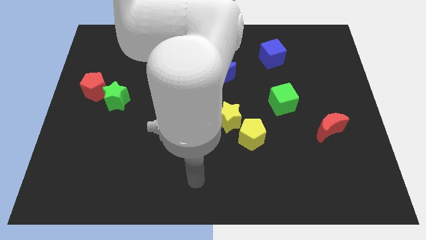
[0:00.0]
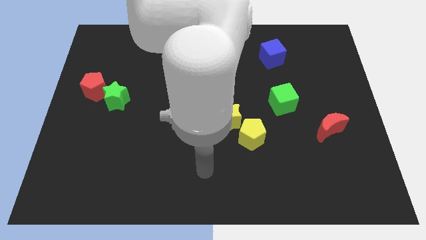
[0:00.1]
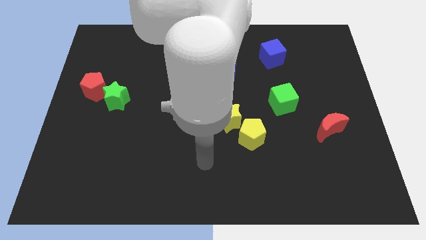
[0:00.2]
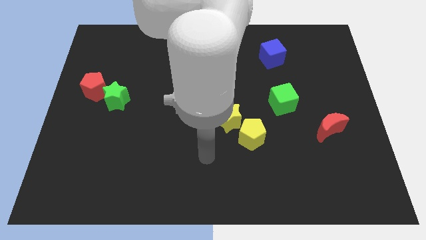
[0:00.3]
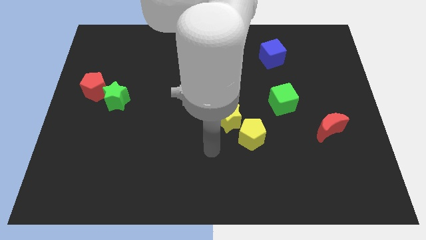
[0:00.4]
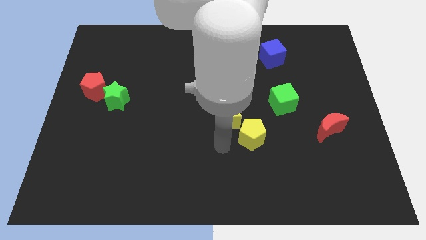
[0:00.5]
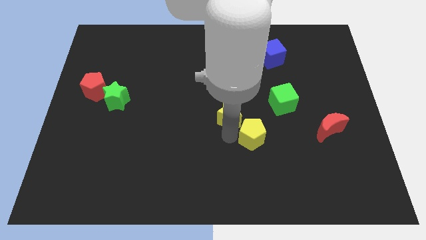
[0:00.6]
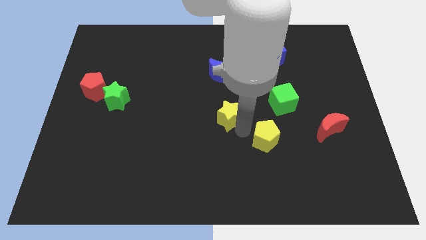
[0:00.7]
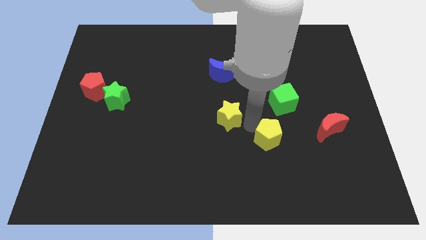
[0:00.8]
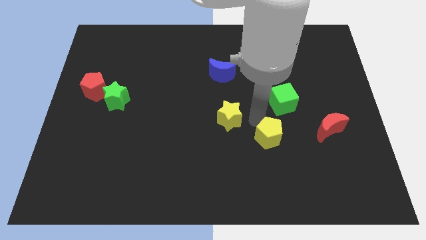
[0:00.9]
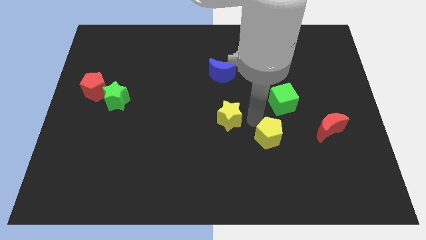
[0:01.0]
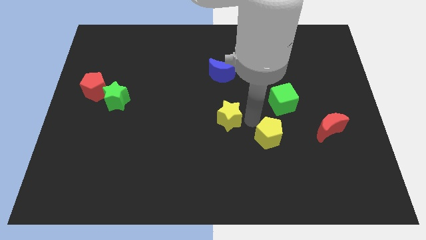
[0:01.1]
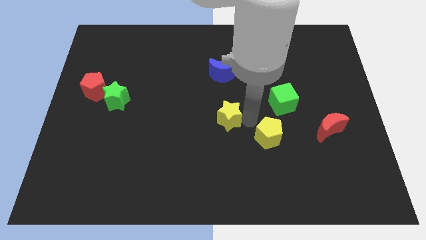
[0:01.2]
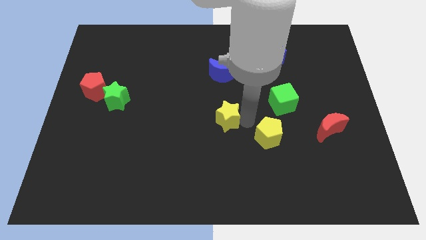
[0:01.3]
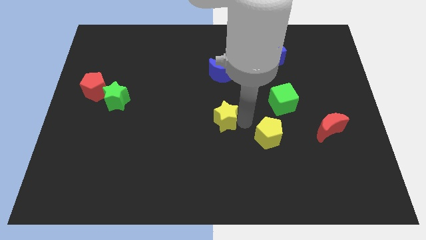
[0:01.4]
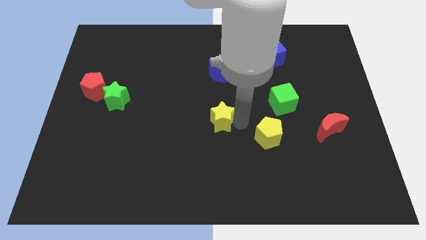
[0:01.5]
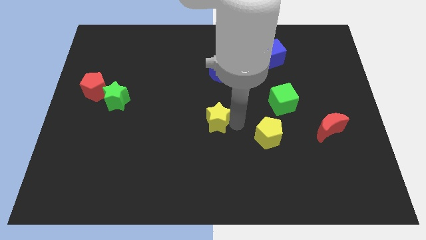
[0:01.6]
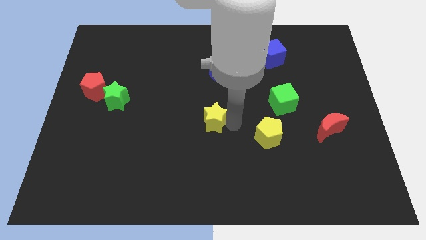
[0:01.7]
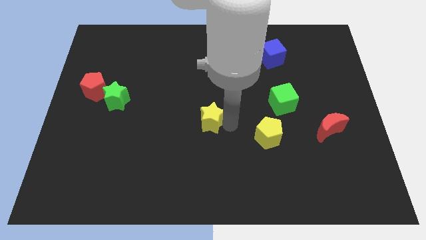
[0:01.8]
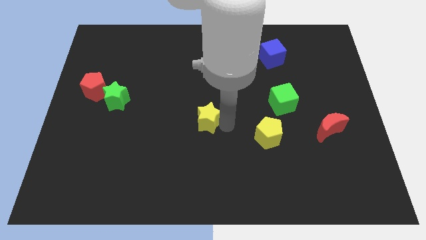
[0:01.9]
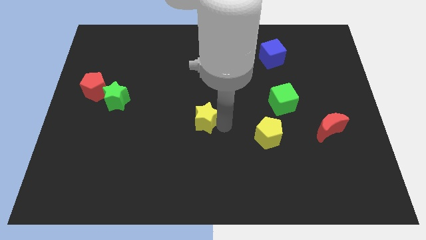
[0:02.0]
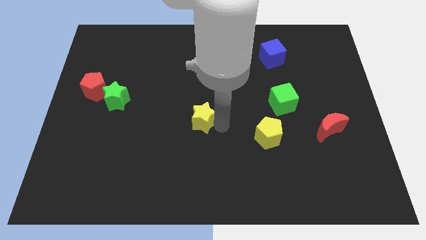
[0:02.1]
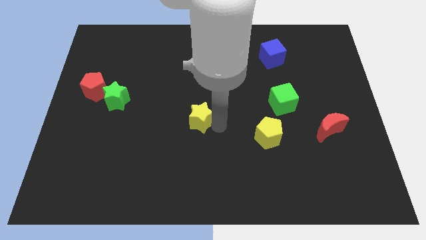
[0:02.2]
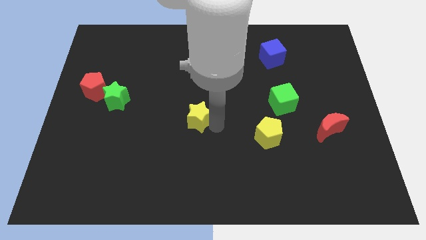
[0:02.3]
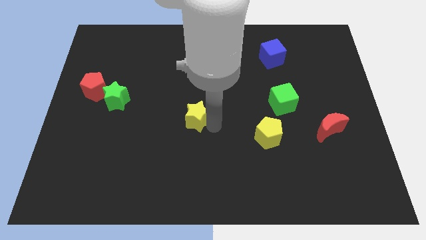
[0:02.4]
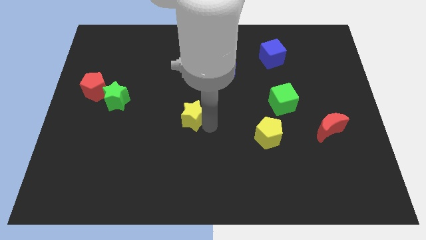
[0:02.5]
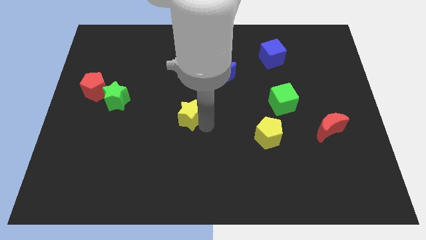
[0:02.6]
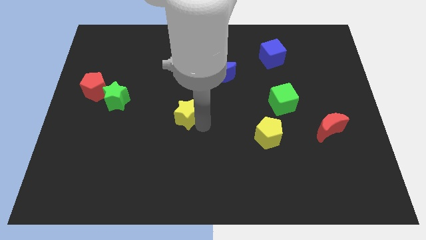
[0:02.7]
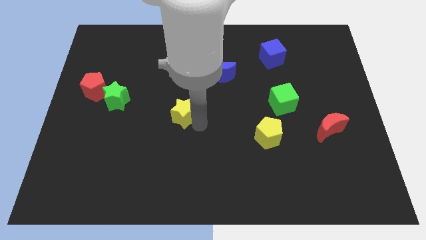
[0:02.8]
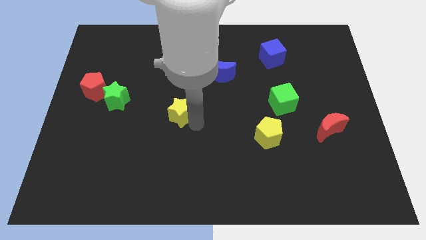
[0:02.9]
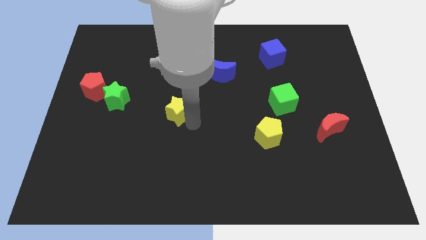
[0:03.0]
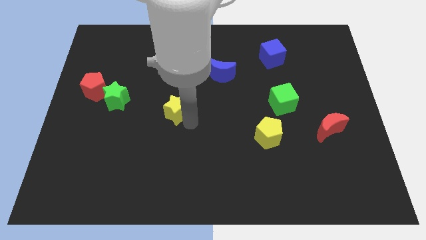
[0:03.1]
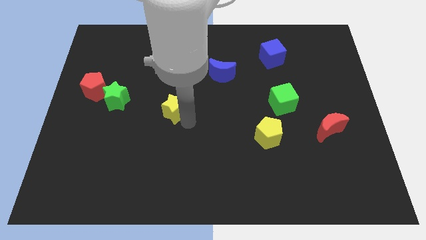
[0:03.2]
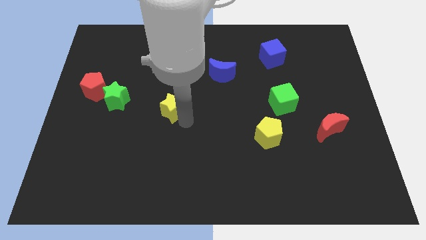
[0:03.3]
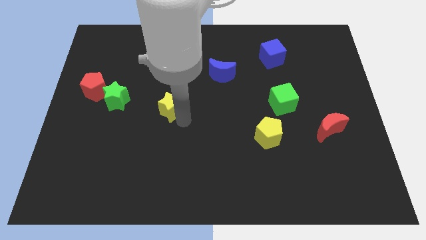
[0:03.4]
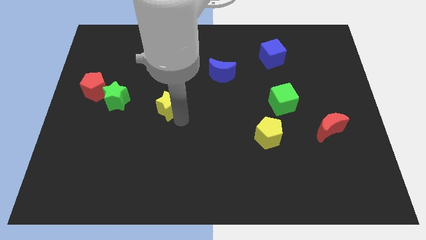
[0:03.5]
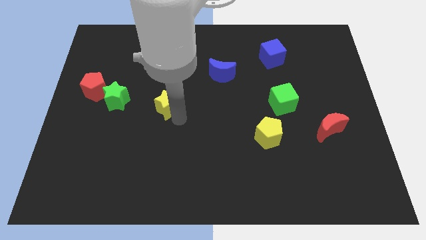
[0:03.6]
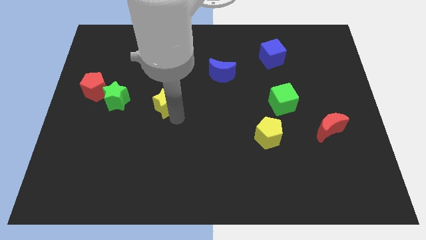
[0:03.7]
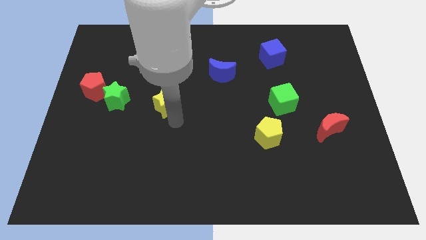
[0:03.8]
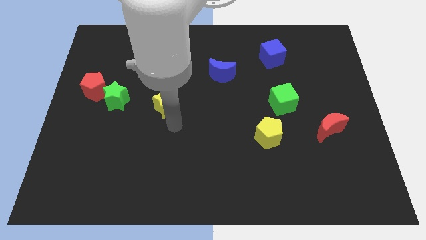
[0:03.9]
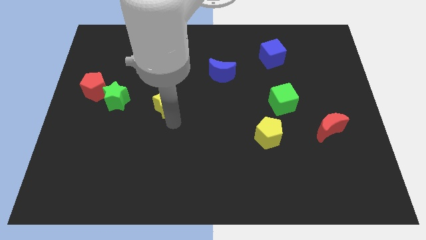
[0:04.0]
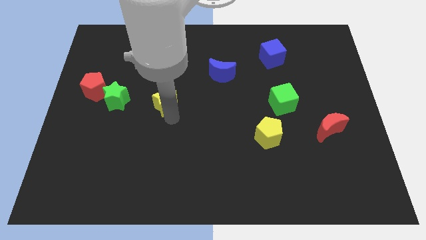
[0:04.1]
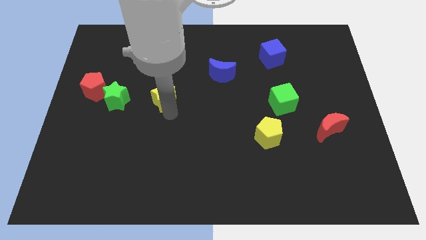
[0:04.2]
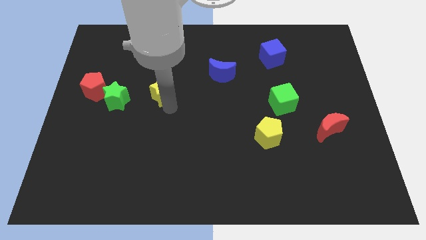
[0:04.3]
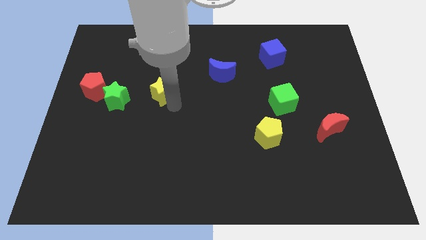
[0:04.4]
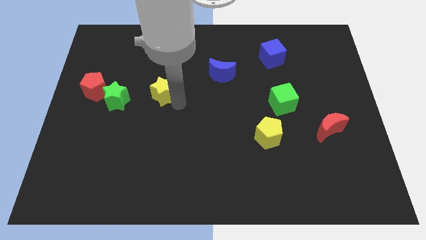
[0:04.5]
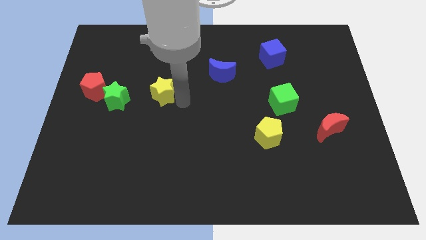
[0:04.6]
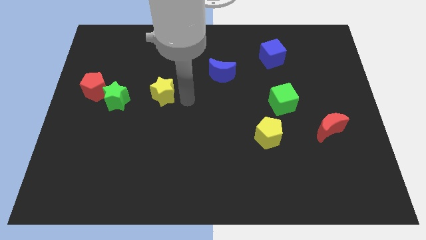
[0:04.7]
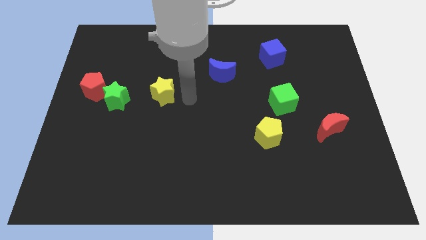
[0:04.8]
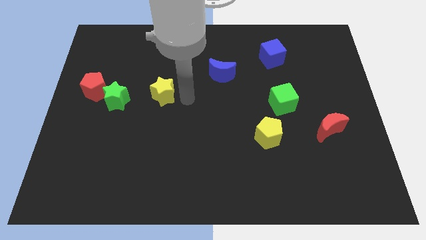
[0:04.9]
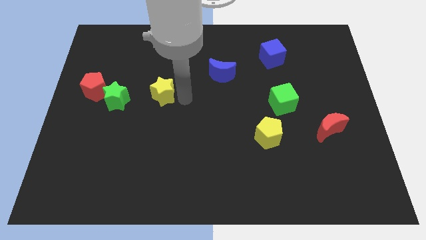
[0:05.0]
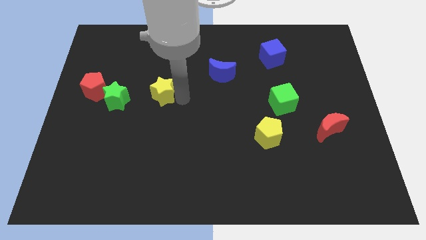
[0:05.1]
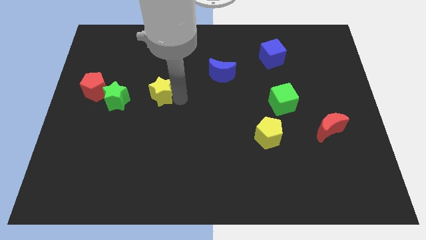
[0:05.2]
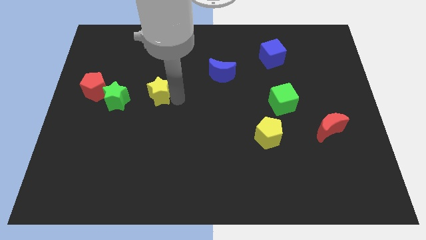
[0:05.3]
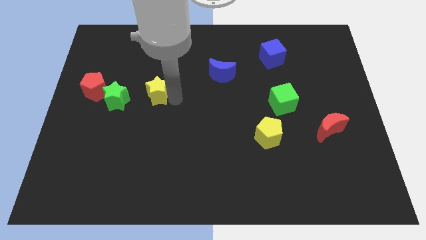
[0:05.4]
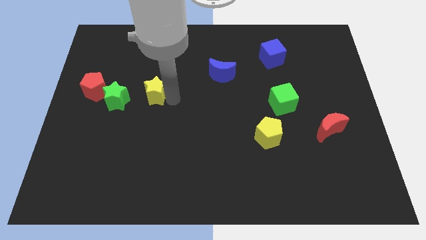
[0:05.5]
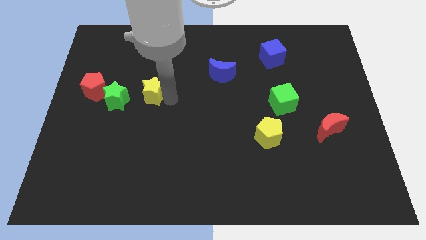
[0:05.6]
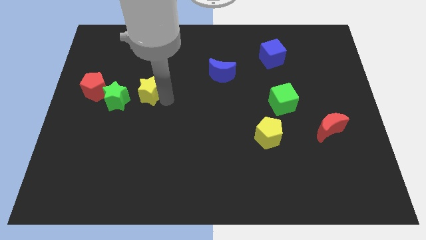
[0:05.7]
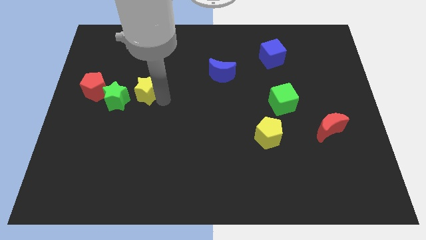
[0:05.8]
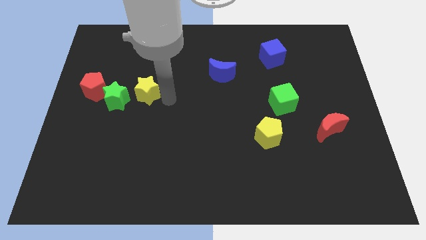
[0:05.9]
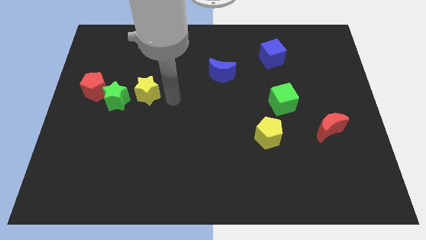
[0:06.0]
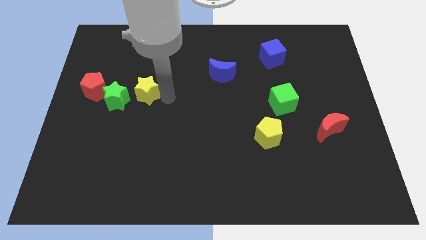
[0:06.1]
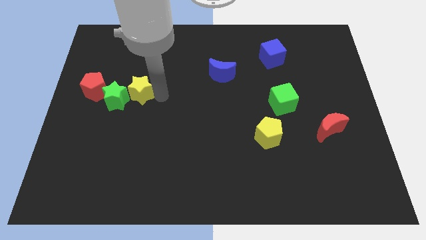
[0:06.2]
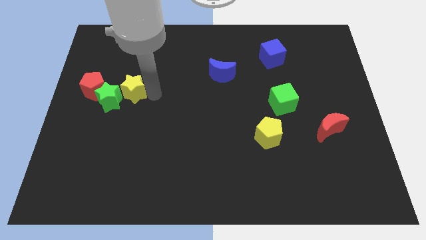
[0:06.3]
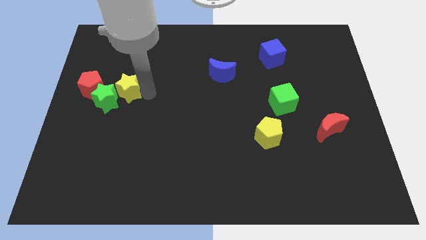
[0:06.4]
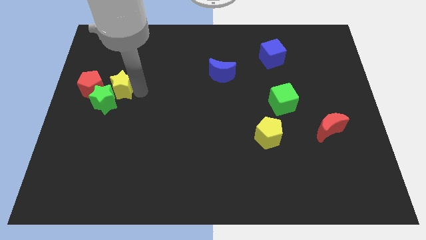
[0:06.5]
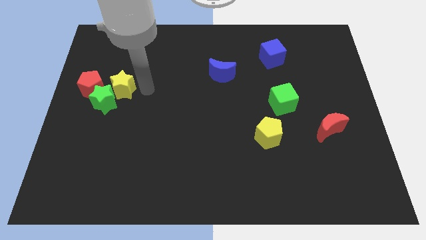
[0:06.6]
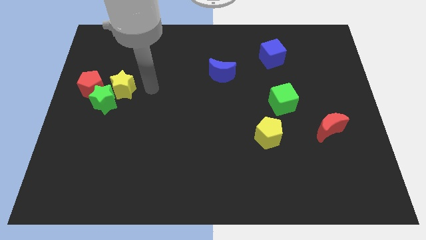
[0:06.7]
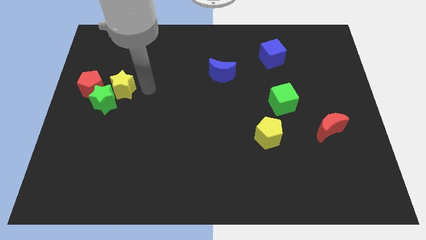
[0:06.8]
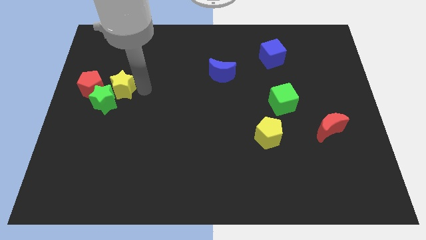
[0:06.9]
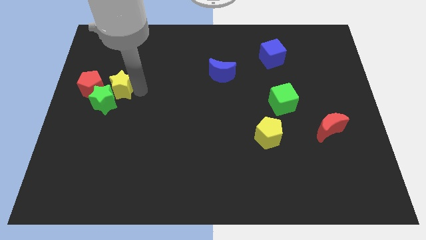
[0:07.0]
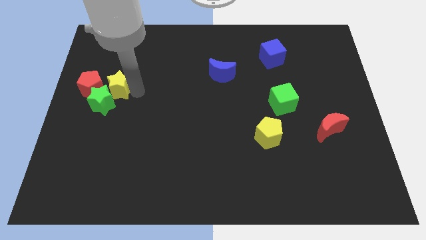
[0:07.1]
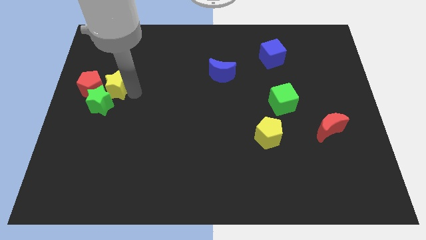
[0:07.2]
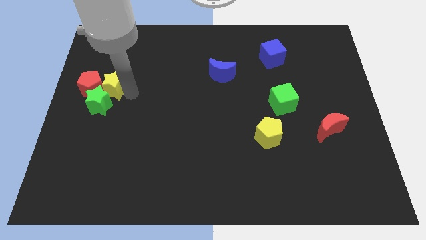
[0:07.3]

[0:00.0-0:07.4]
put the yellow star next to the red pentagon
